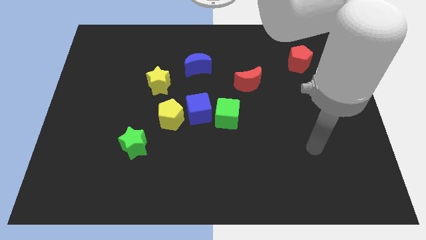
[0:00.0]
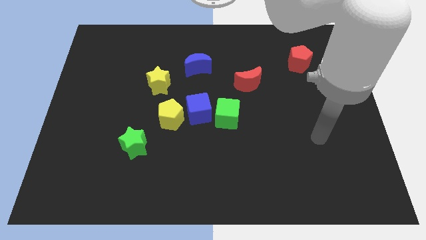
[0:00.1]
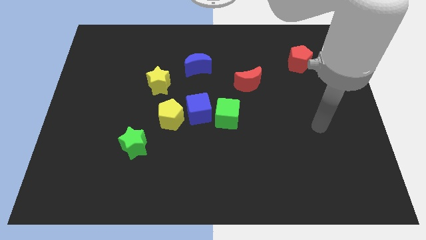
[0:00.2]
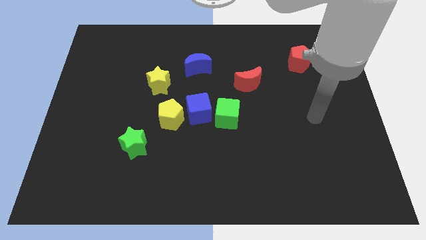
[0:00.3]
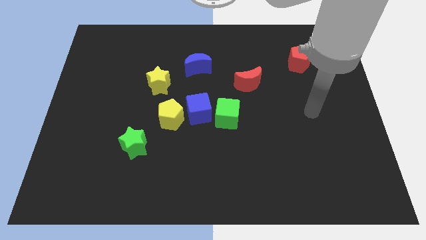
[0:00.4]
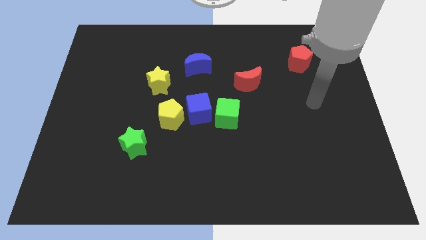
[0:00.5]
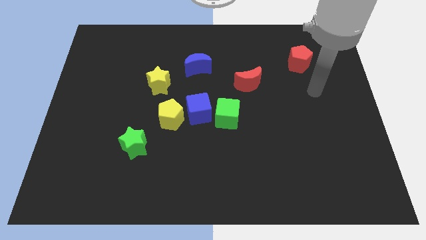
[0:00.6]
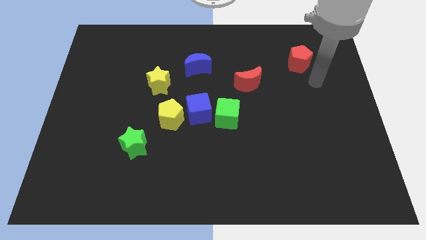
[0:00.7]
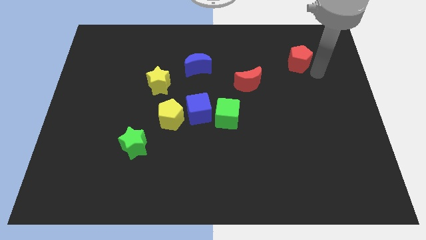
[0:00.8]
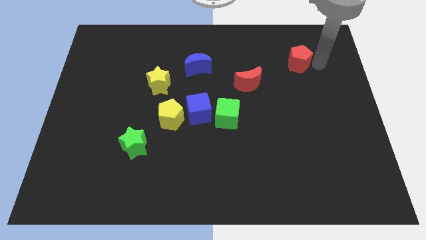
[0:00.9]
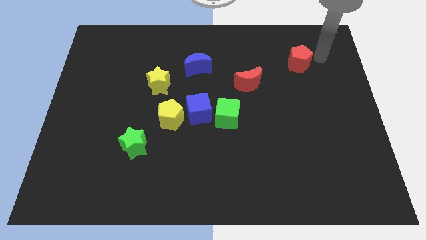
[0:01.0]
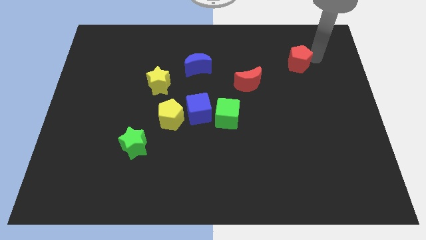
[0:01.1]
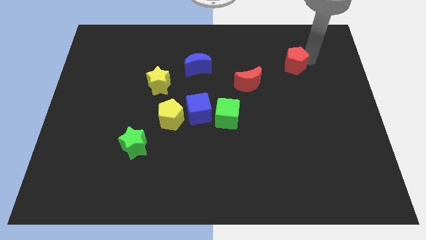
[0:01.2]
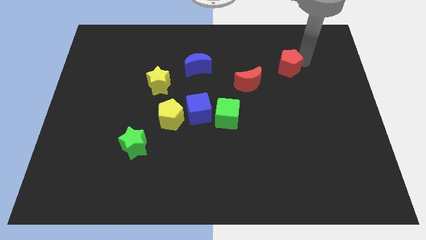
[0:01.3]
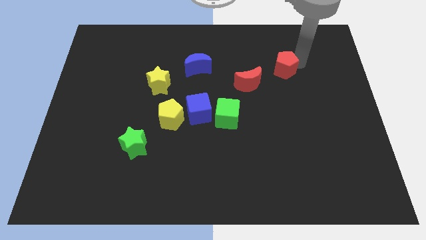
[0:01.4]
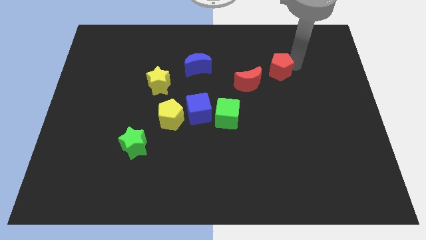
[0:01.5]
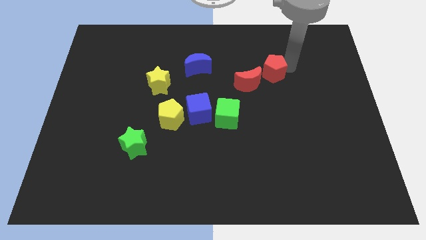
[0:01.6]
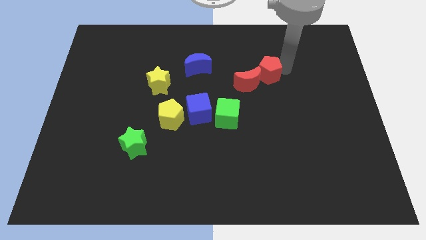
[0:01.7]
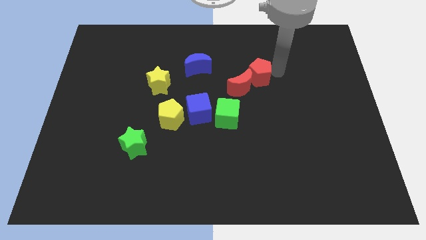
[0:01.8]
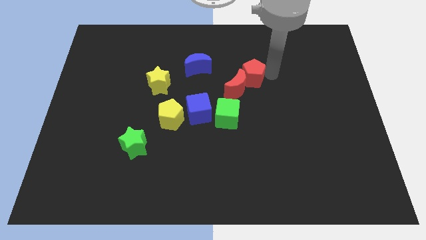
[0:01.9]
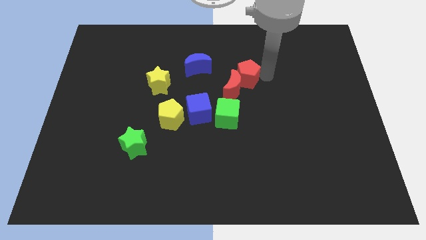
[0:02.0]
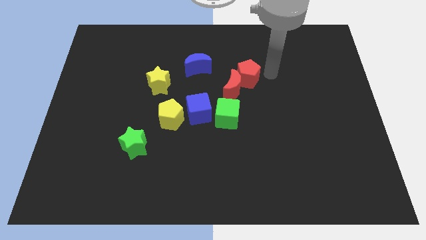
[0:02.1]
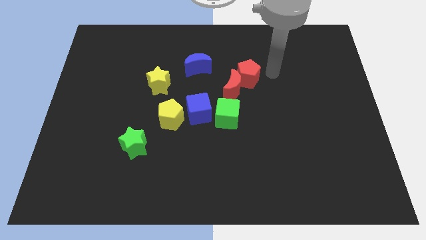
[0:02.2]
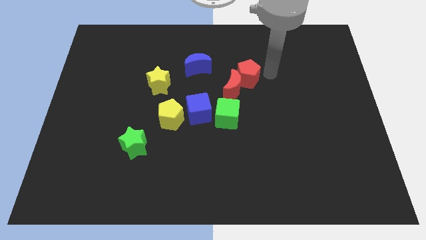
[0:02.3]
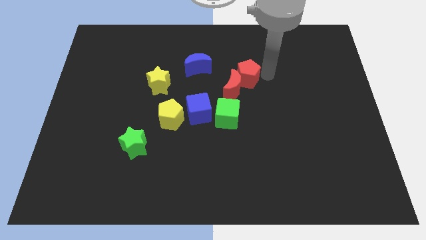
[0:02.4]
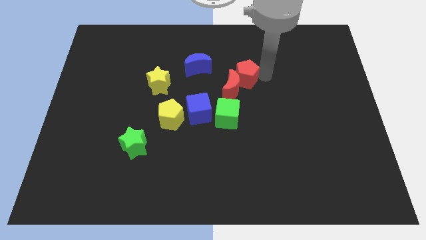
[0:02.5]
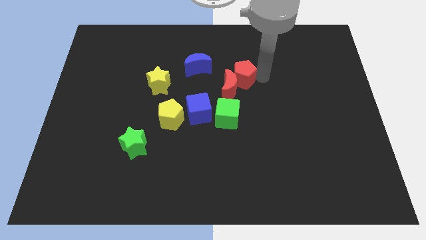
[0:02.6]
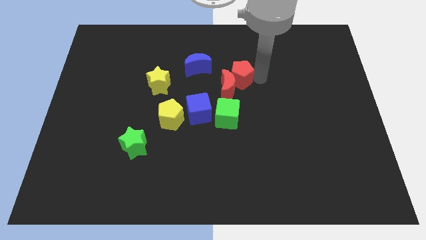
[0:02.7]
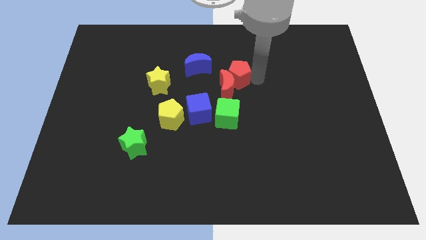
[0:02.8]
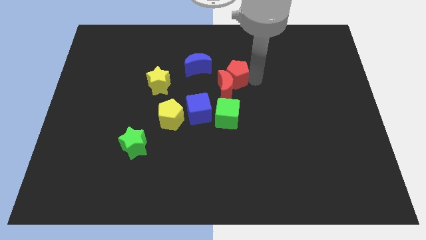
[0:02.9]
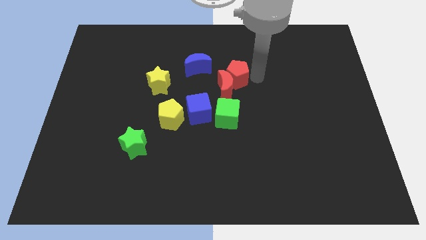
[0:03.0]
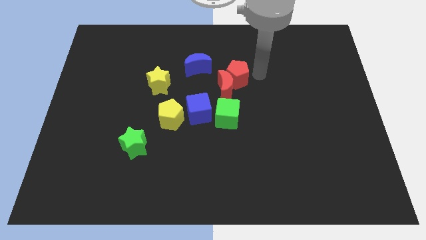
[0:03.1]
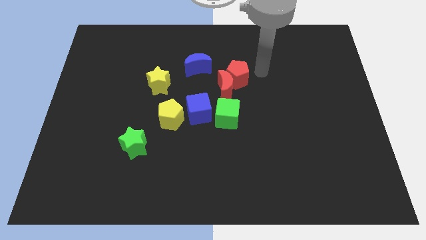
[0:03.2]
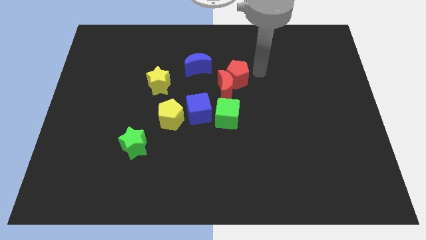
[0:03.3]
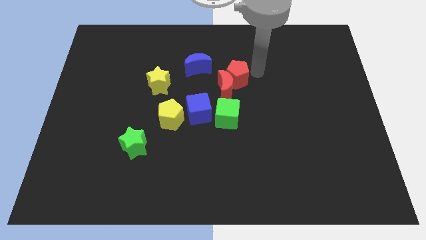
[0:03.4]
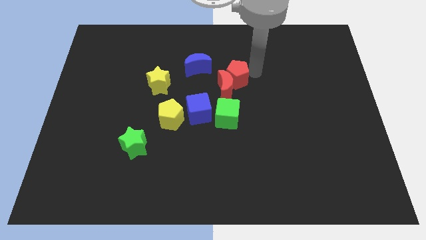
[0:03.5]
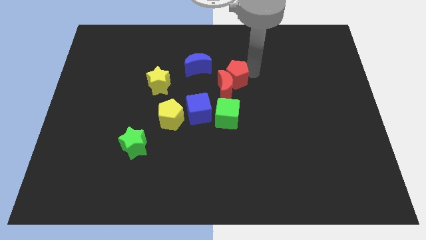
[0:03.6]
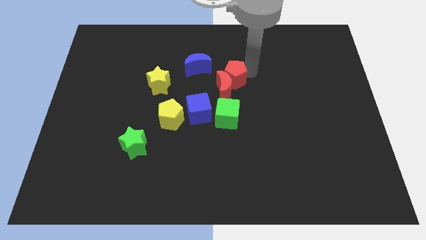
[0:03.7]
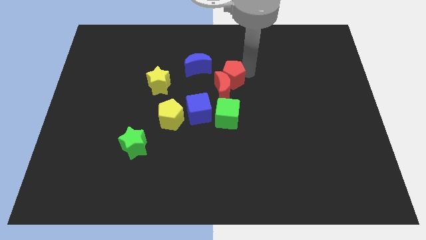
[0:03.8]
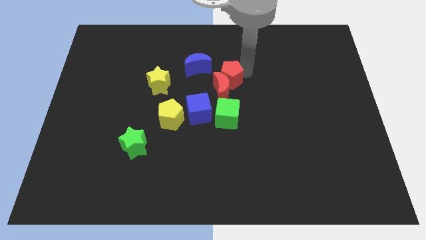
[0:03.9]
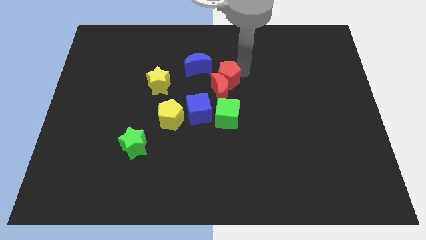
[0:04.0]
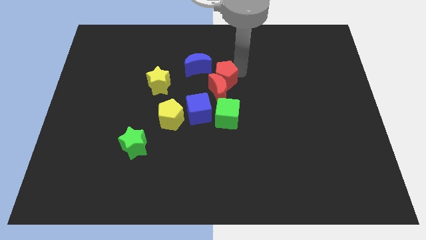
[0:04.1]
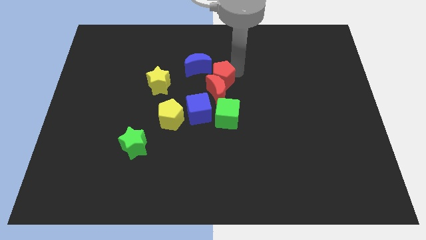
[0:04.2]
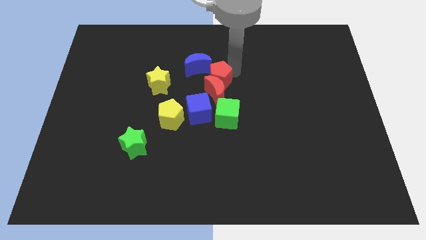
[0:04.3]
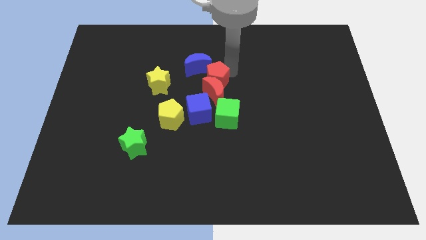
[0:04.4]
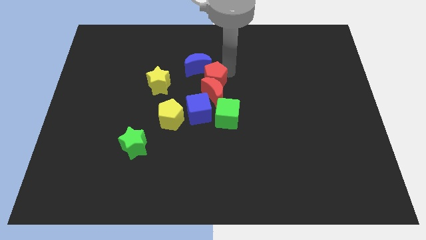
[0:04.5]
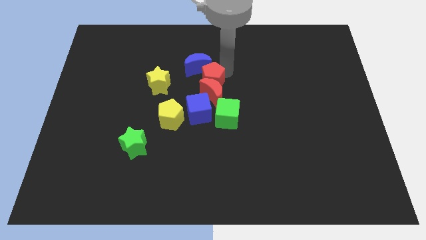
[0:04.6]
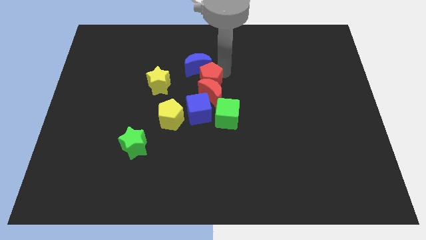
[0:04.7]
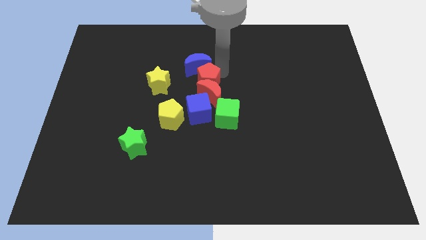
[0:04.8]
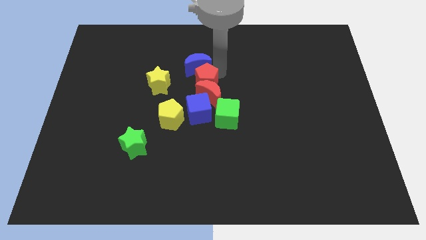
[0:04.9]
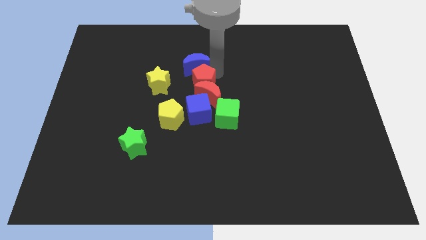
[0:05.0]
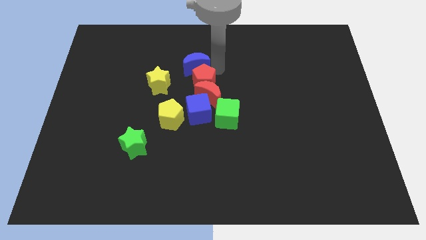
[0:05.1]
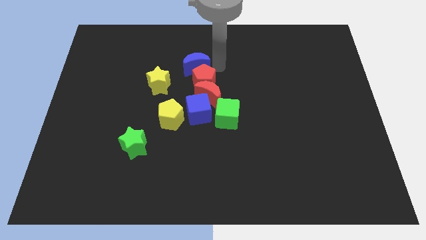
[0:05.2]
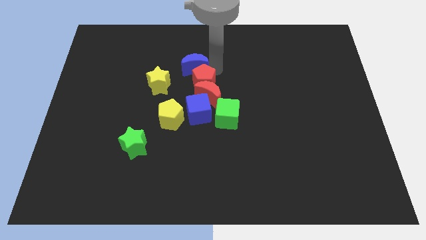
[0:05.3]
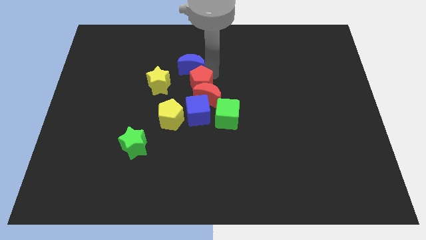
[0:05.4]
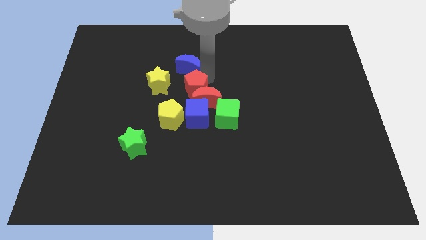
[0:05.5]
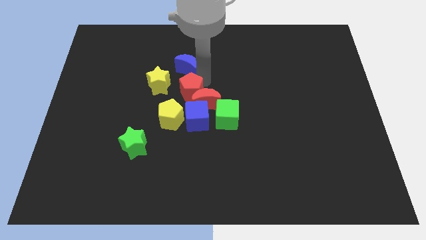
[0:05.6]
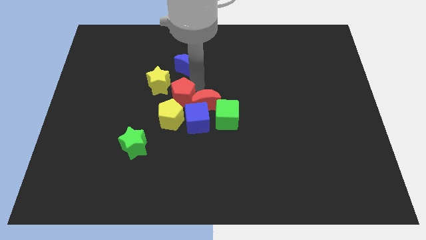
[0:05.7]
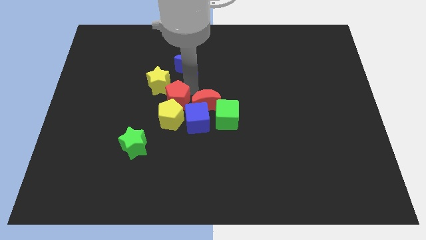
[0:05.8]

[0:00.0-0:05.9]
slide the red pentagon to the yellow pentagon

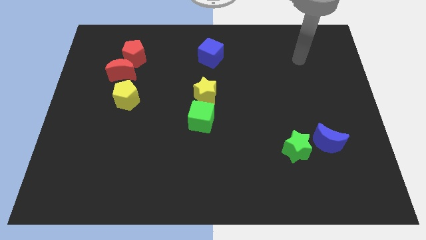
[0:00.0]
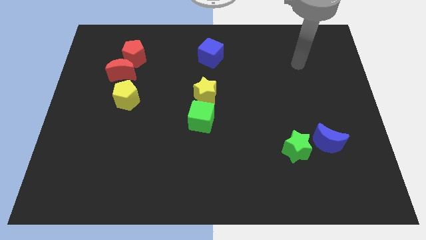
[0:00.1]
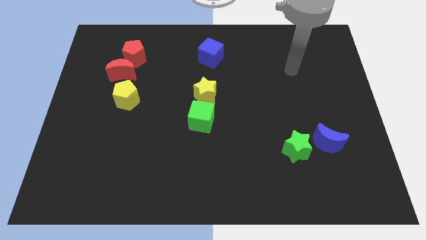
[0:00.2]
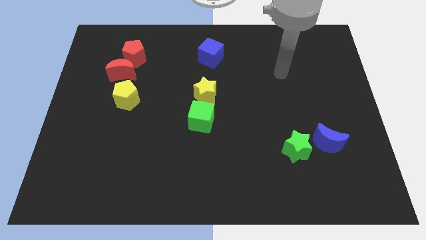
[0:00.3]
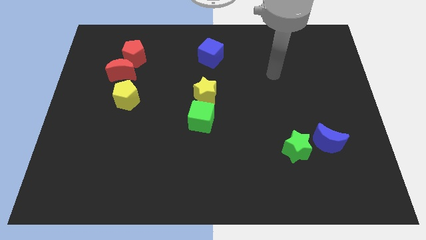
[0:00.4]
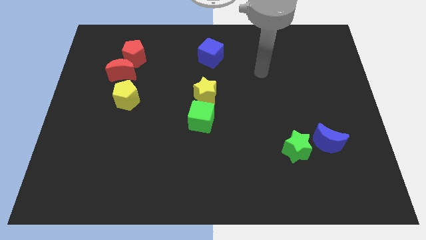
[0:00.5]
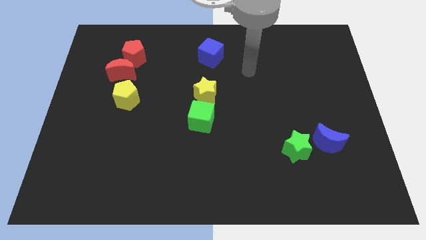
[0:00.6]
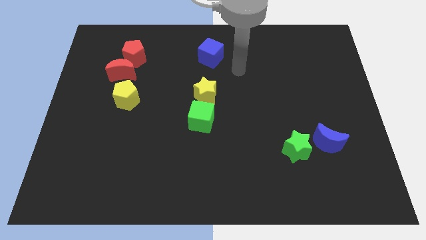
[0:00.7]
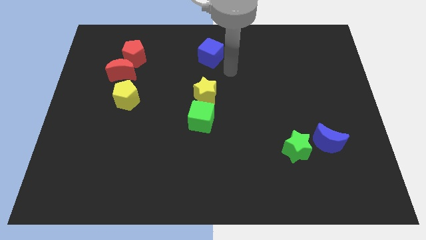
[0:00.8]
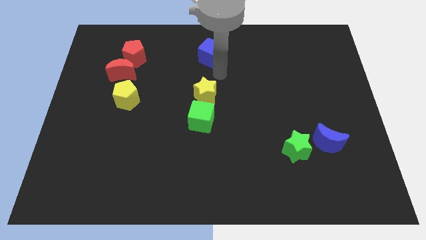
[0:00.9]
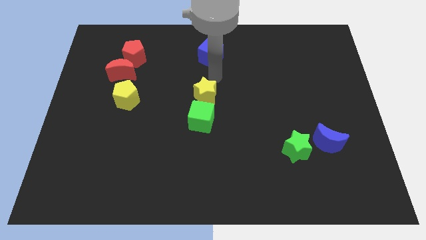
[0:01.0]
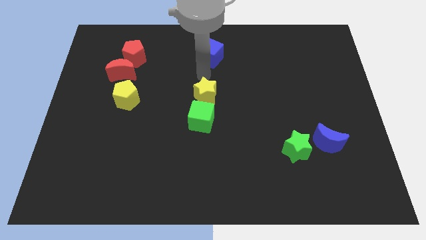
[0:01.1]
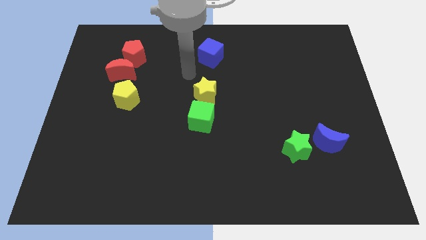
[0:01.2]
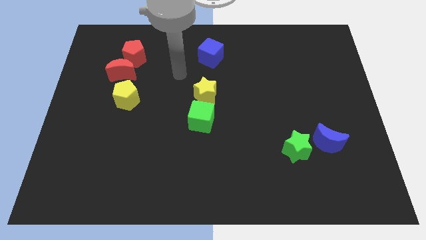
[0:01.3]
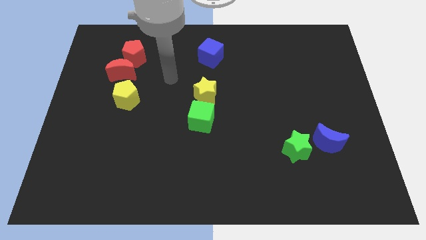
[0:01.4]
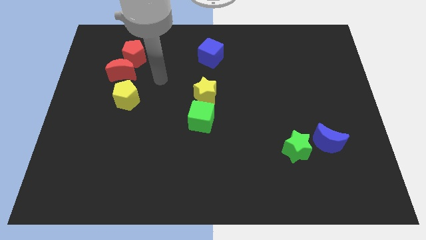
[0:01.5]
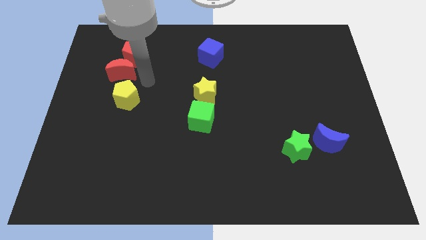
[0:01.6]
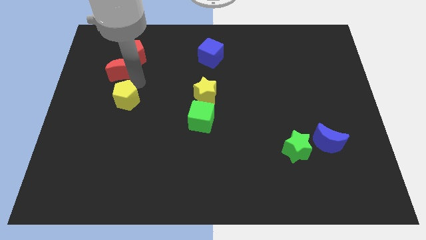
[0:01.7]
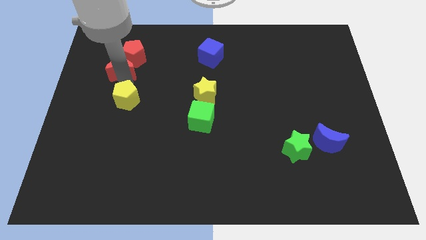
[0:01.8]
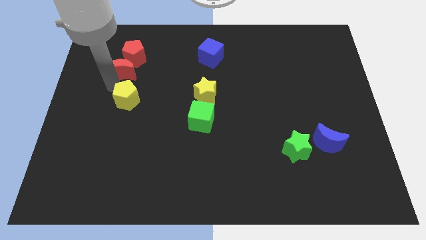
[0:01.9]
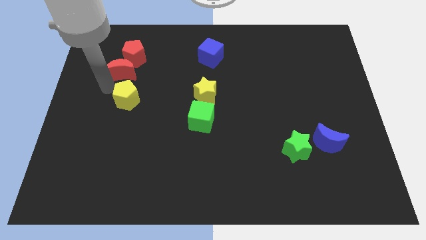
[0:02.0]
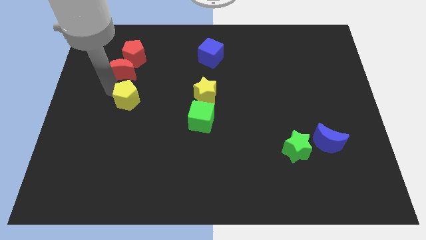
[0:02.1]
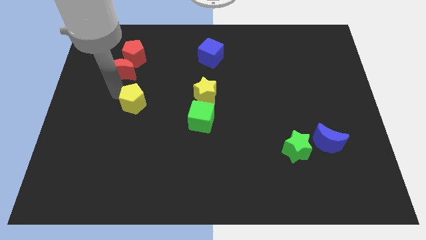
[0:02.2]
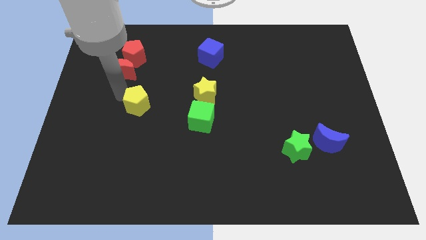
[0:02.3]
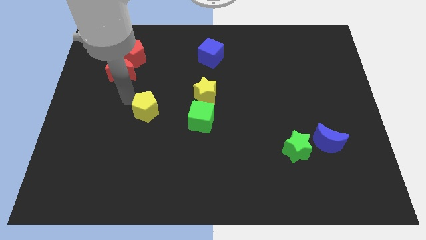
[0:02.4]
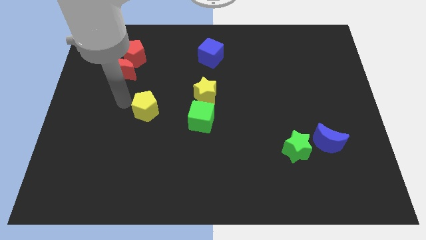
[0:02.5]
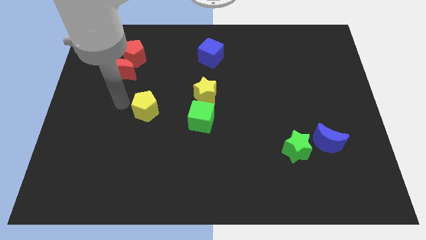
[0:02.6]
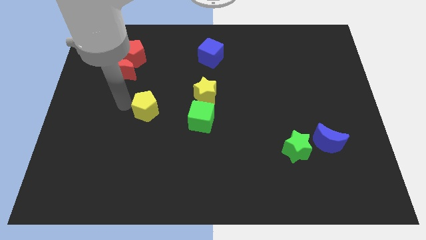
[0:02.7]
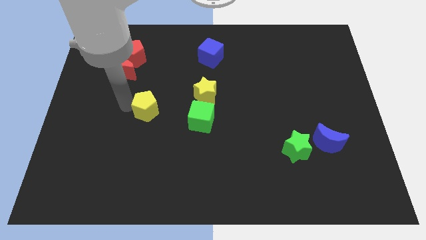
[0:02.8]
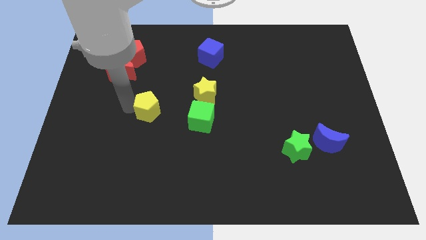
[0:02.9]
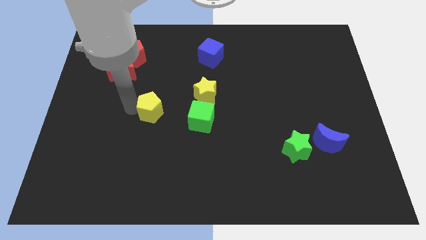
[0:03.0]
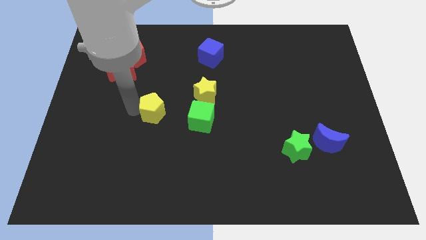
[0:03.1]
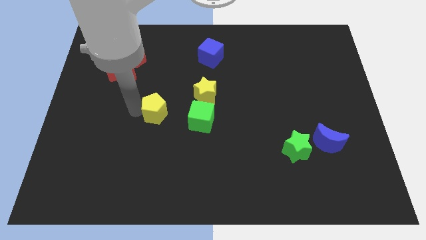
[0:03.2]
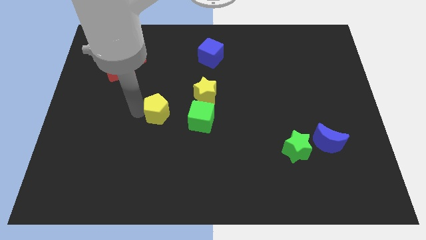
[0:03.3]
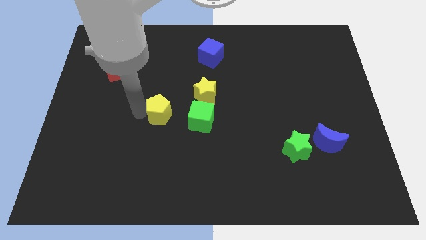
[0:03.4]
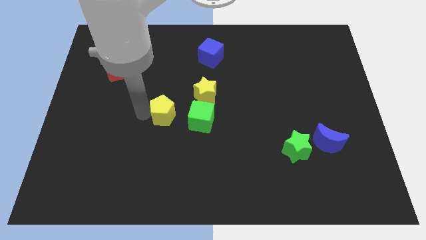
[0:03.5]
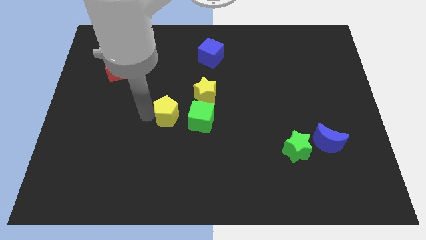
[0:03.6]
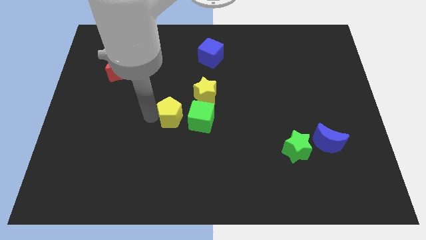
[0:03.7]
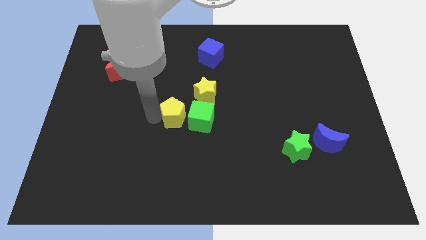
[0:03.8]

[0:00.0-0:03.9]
put the yellow pentagon next to the green cube
